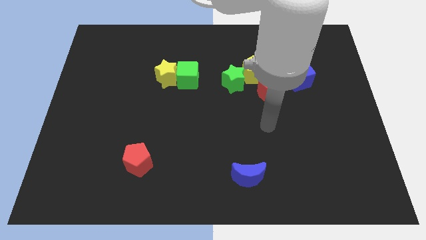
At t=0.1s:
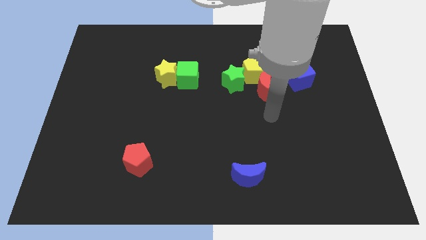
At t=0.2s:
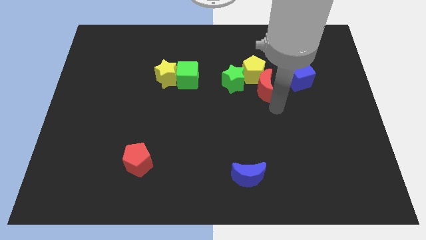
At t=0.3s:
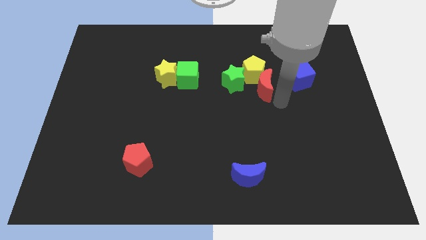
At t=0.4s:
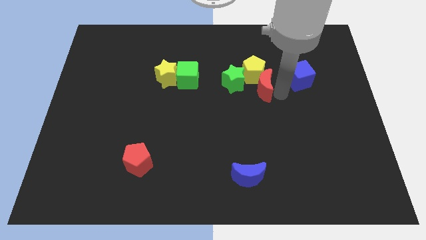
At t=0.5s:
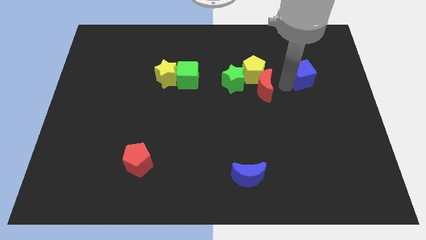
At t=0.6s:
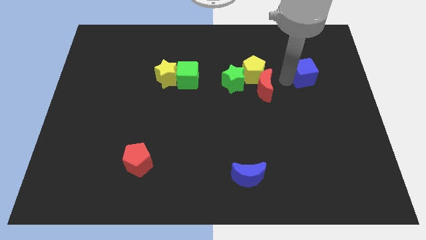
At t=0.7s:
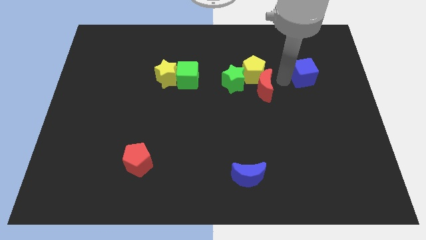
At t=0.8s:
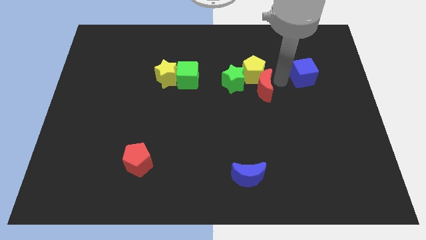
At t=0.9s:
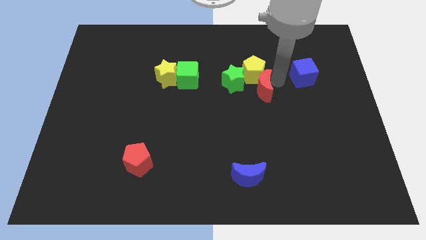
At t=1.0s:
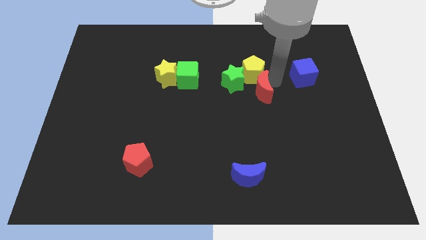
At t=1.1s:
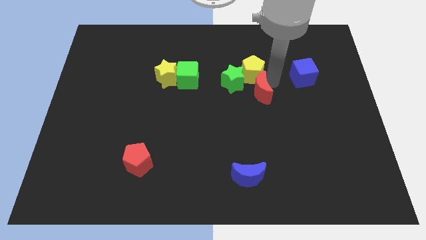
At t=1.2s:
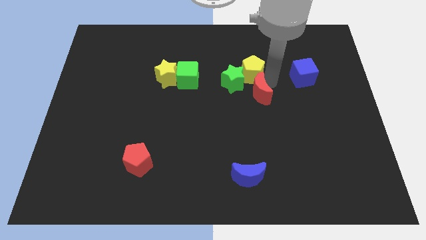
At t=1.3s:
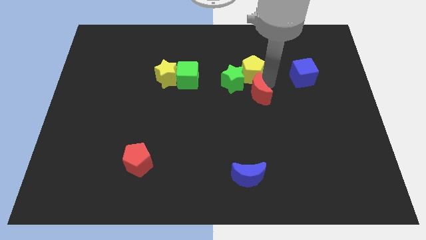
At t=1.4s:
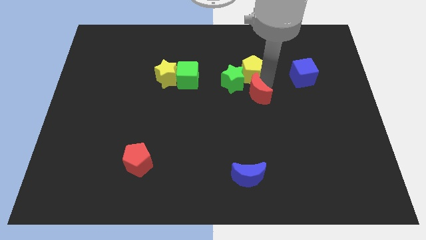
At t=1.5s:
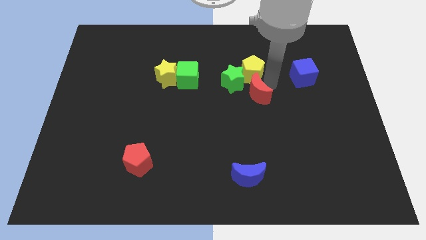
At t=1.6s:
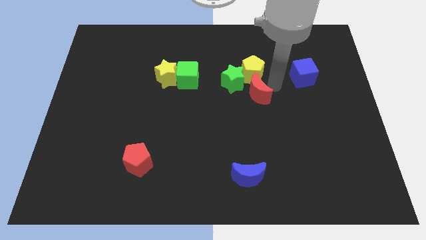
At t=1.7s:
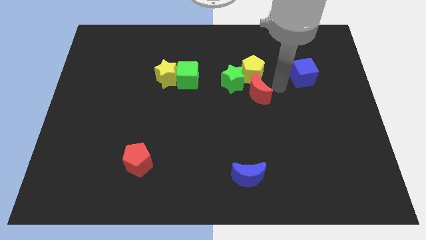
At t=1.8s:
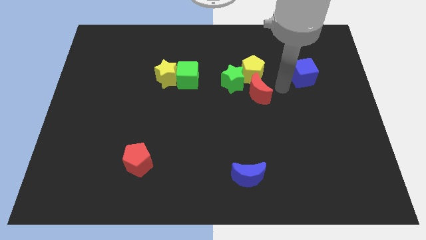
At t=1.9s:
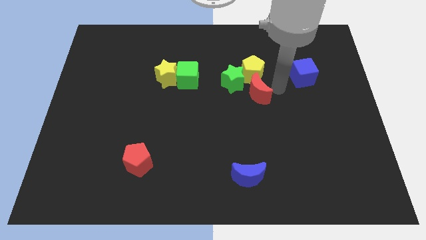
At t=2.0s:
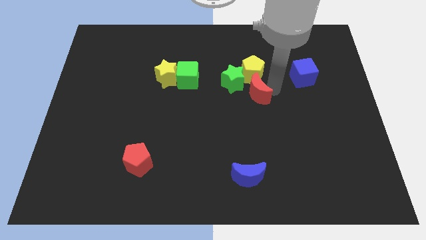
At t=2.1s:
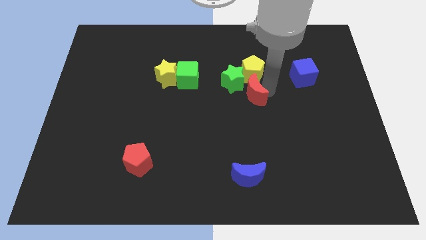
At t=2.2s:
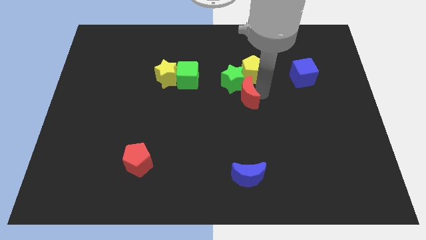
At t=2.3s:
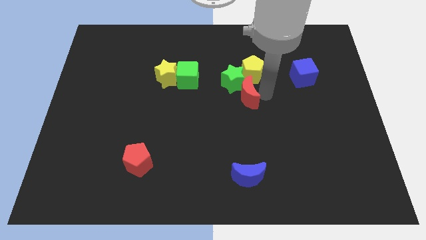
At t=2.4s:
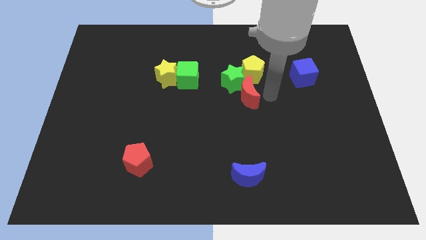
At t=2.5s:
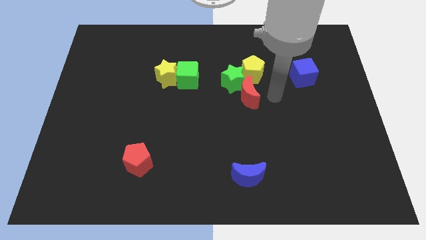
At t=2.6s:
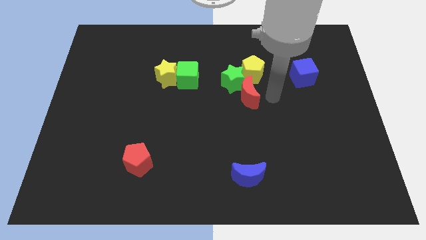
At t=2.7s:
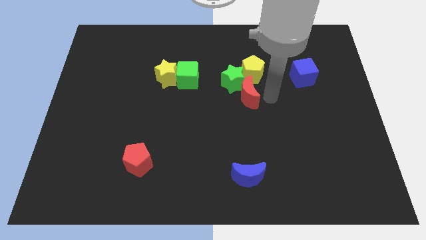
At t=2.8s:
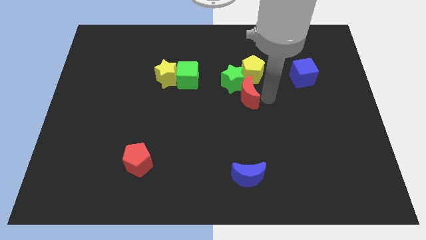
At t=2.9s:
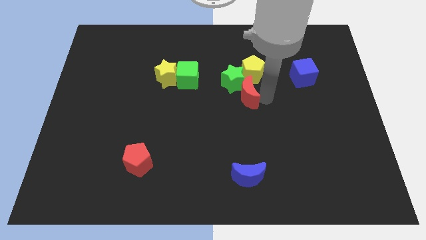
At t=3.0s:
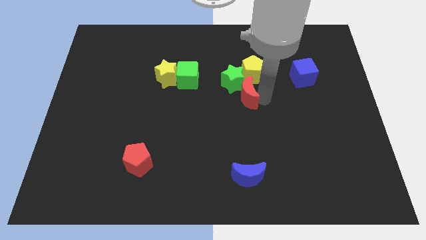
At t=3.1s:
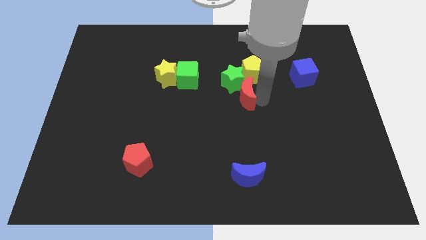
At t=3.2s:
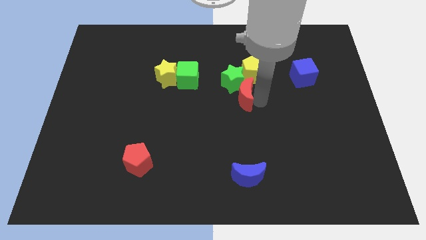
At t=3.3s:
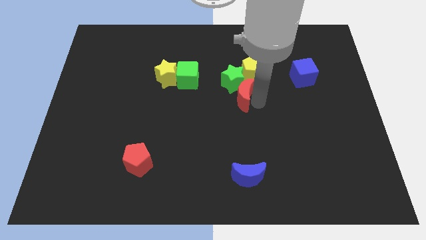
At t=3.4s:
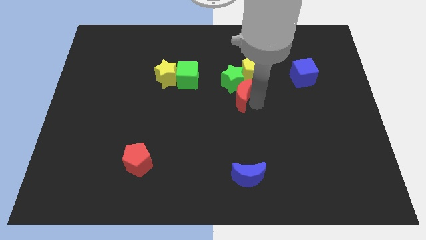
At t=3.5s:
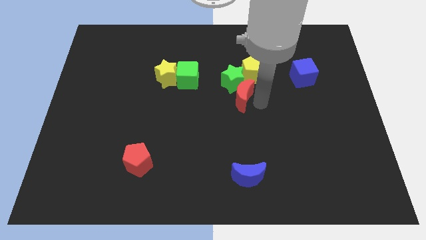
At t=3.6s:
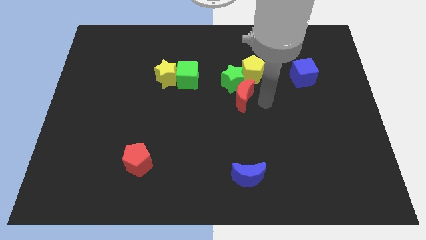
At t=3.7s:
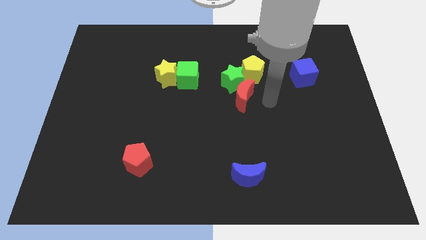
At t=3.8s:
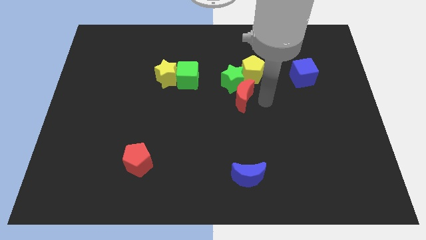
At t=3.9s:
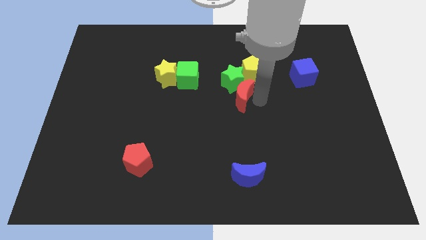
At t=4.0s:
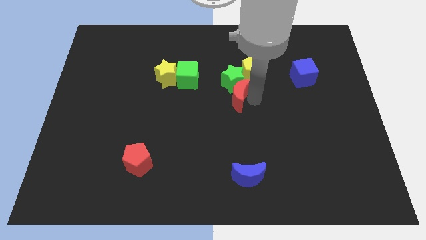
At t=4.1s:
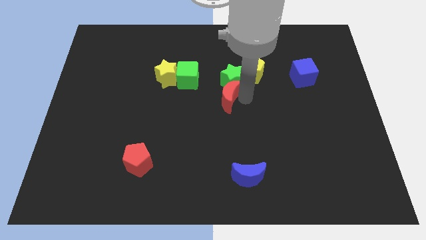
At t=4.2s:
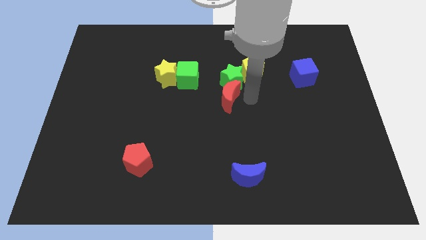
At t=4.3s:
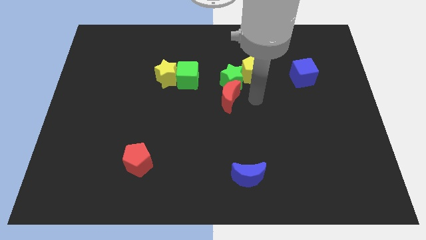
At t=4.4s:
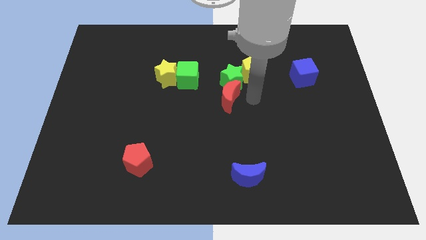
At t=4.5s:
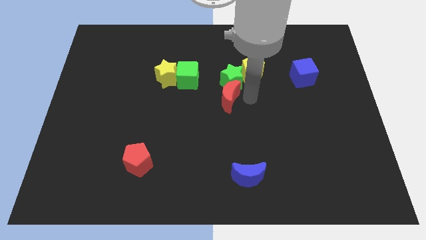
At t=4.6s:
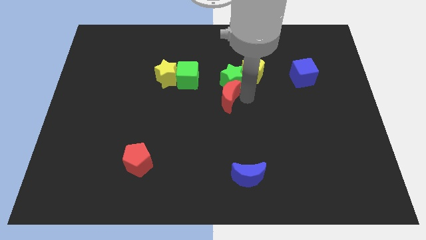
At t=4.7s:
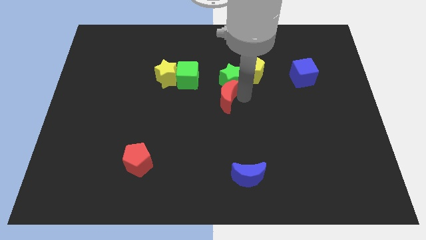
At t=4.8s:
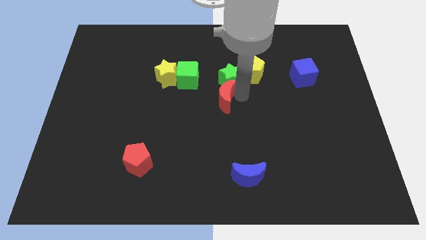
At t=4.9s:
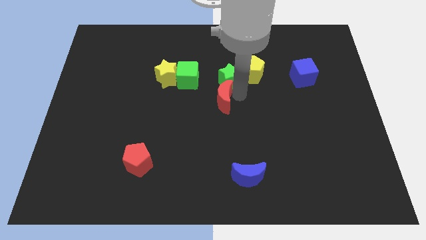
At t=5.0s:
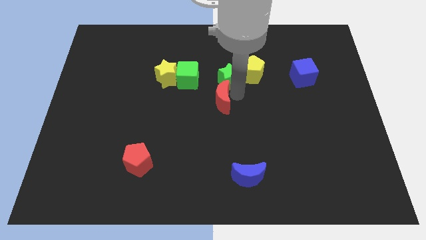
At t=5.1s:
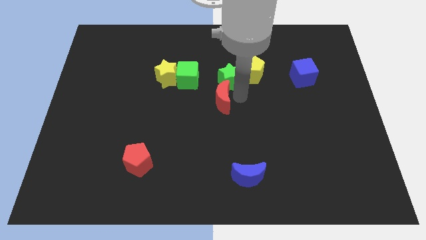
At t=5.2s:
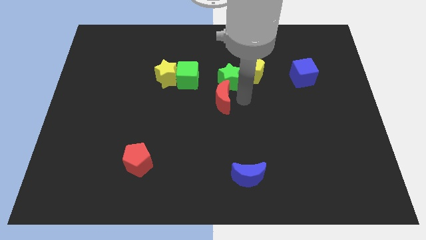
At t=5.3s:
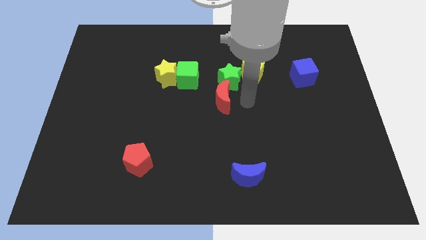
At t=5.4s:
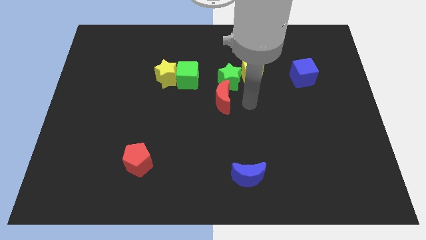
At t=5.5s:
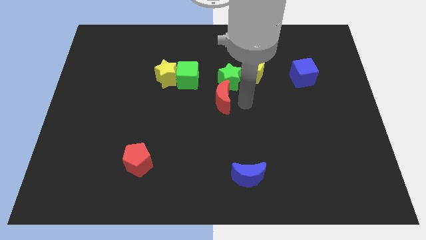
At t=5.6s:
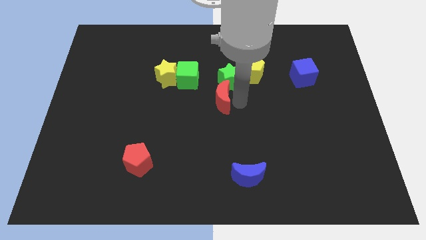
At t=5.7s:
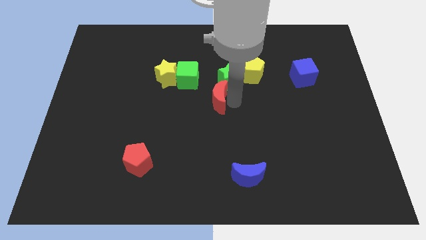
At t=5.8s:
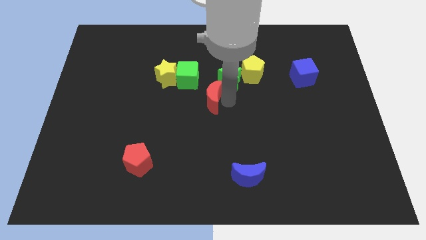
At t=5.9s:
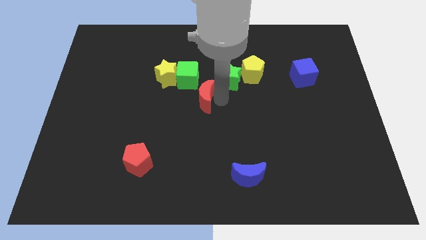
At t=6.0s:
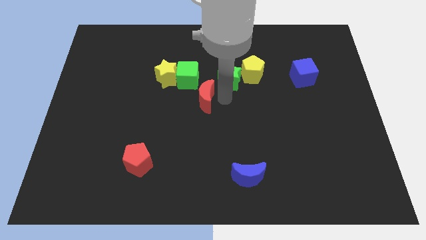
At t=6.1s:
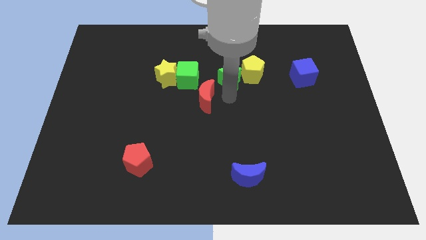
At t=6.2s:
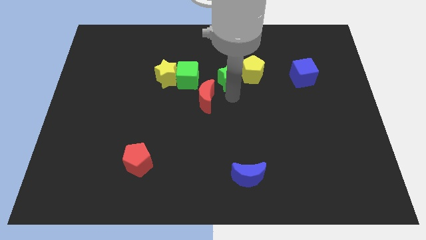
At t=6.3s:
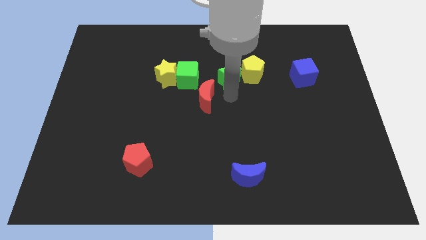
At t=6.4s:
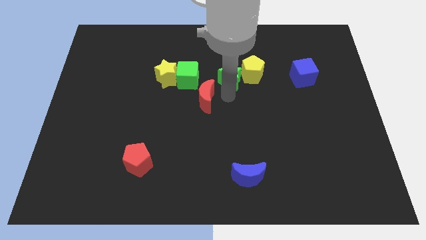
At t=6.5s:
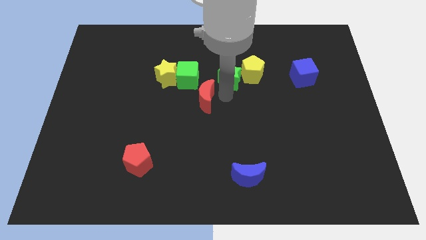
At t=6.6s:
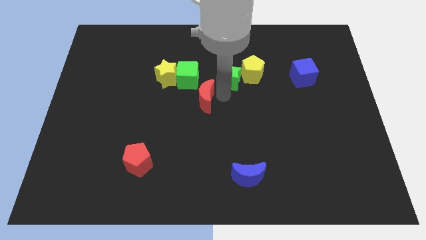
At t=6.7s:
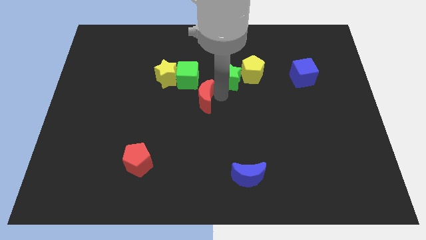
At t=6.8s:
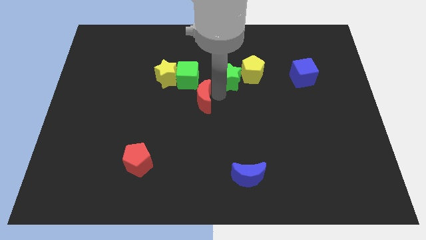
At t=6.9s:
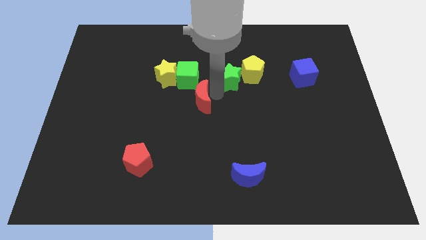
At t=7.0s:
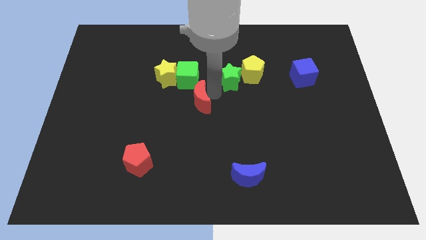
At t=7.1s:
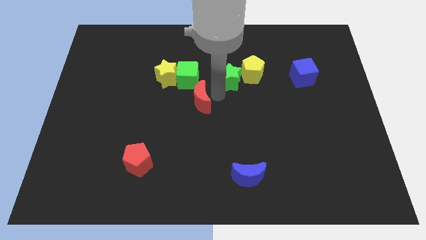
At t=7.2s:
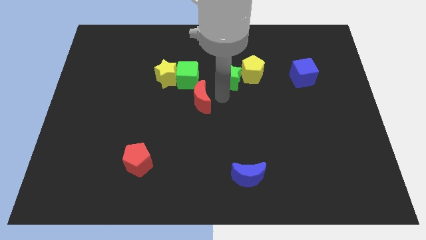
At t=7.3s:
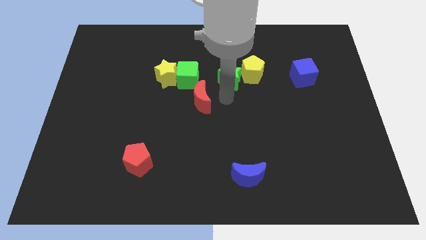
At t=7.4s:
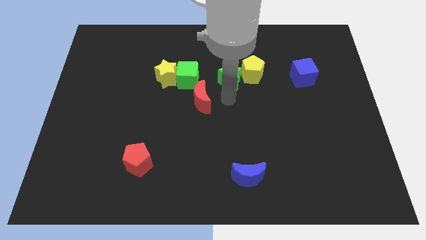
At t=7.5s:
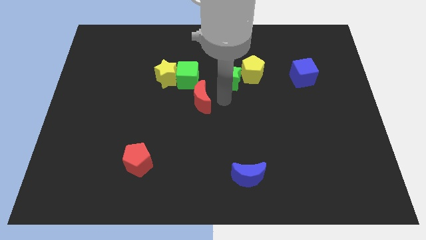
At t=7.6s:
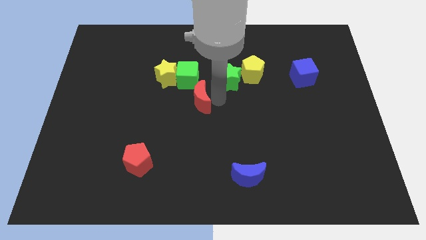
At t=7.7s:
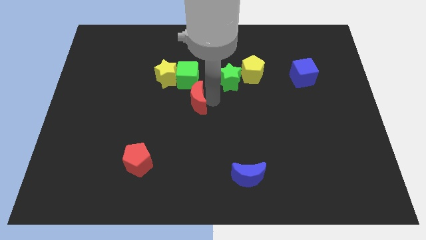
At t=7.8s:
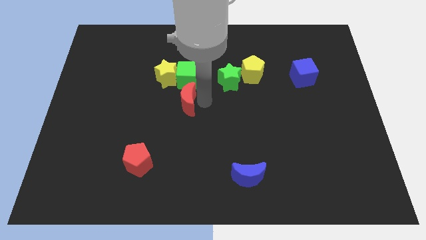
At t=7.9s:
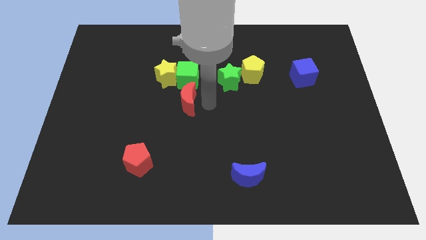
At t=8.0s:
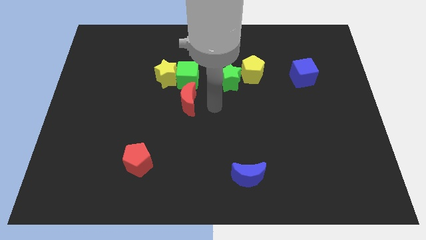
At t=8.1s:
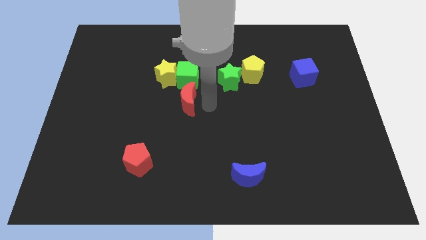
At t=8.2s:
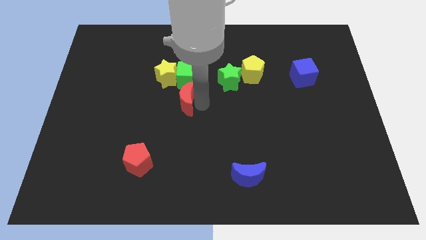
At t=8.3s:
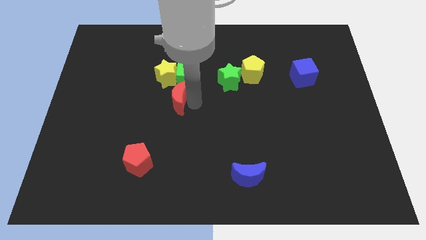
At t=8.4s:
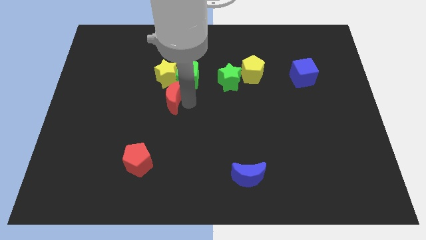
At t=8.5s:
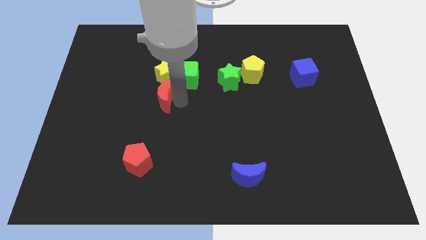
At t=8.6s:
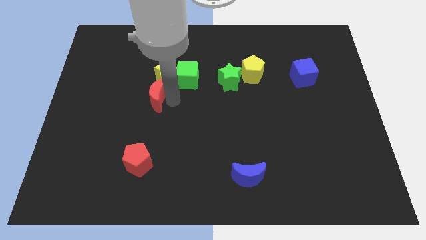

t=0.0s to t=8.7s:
move the red moon to the bottom left side of the yellow star
